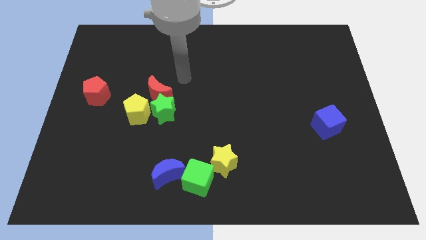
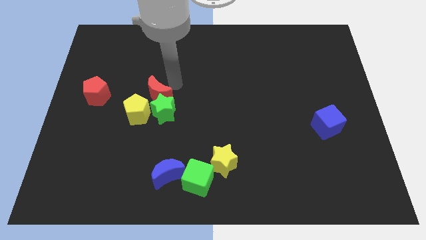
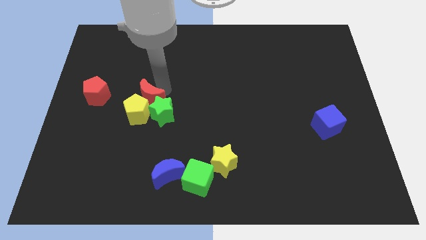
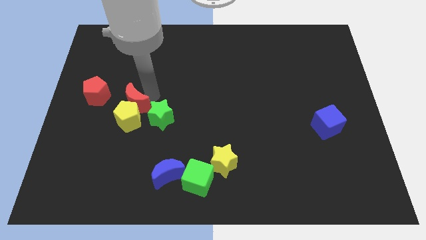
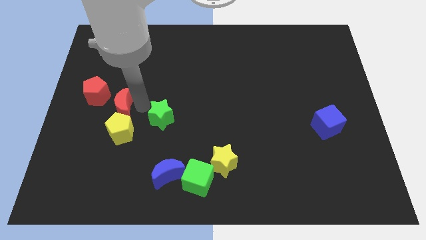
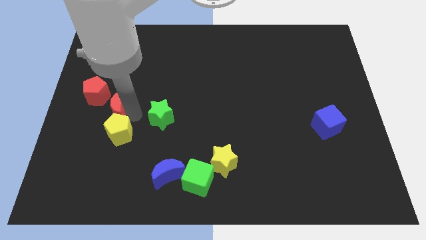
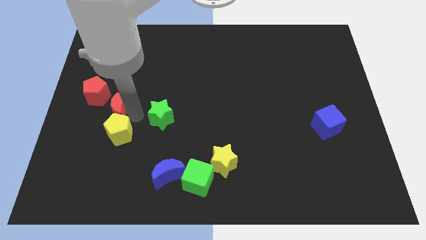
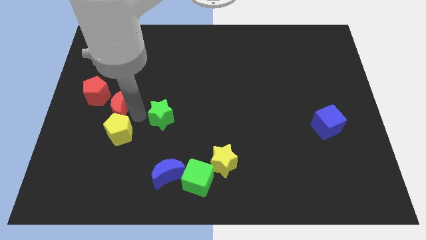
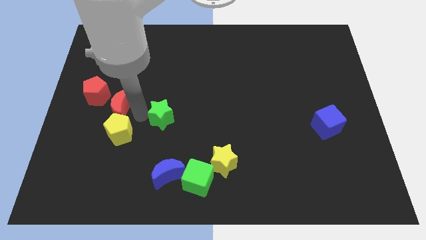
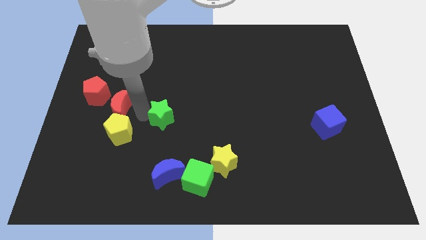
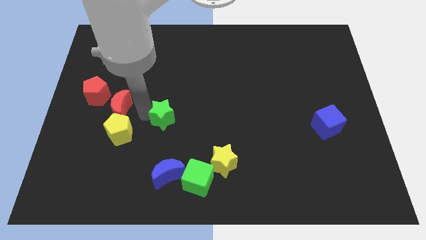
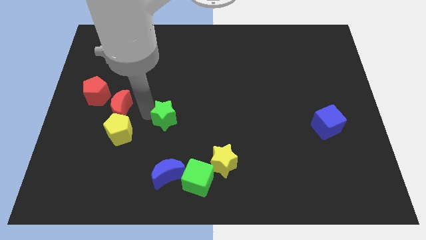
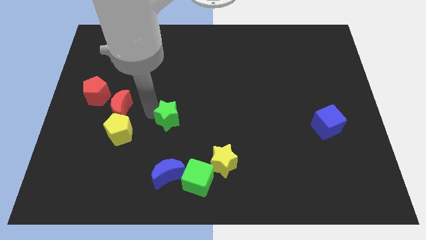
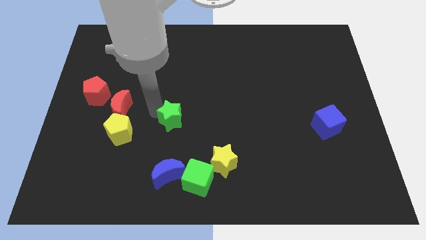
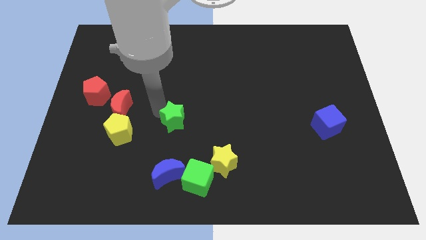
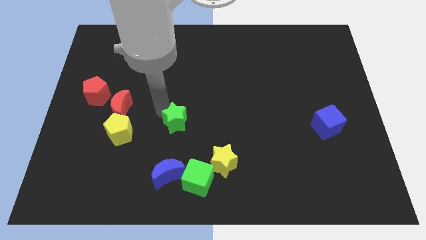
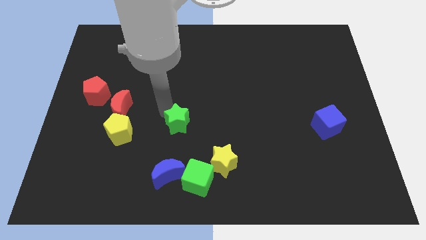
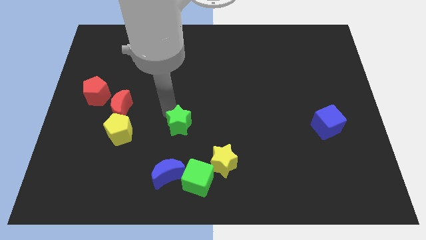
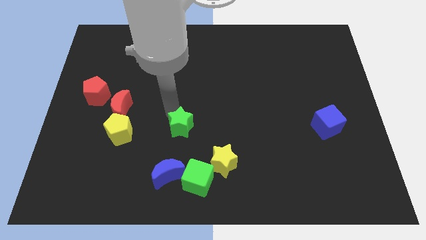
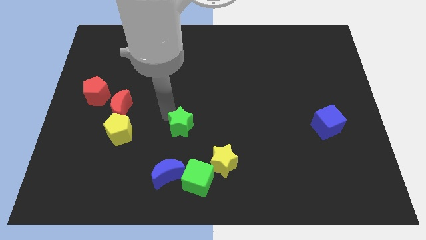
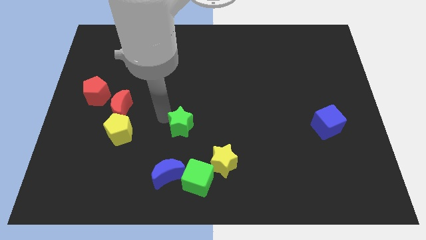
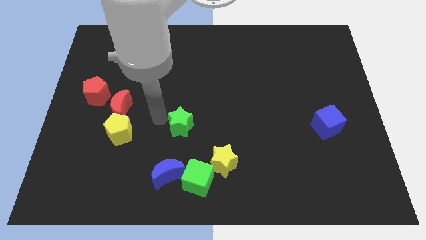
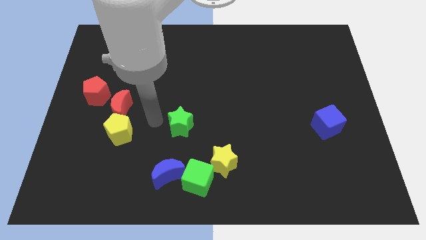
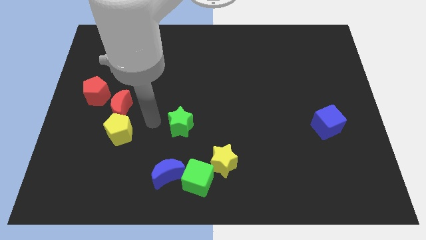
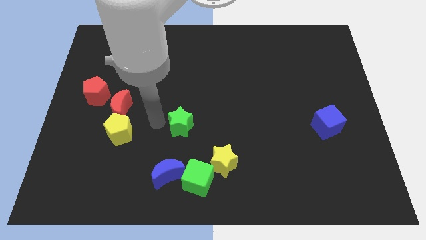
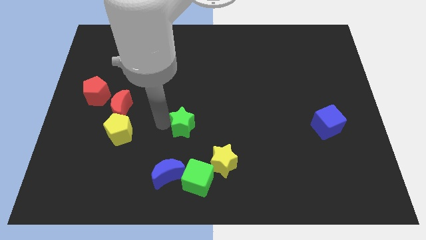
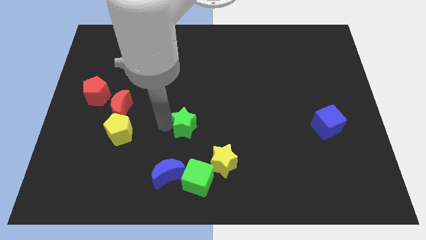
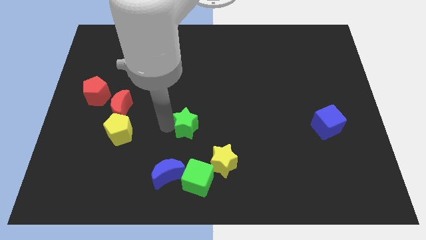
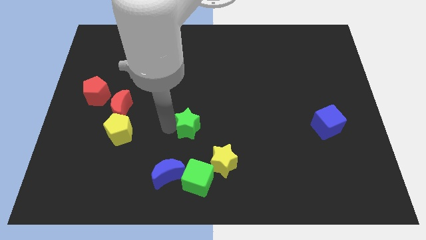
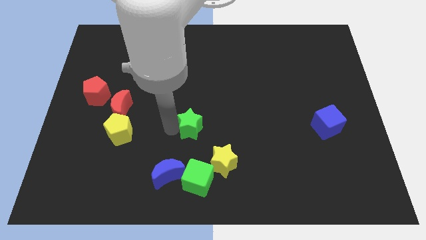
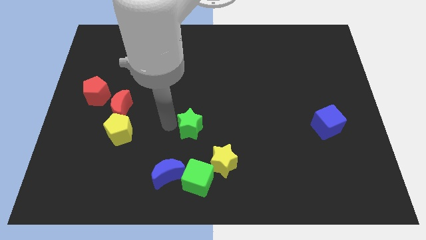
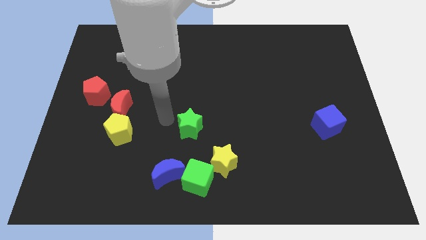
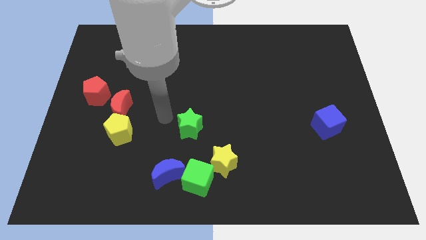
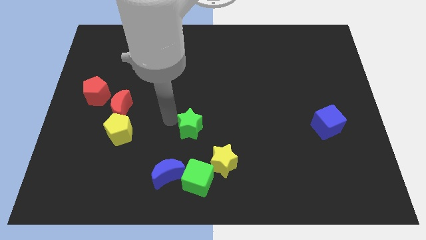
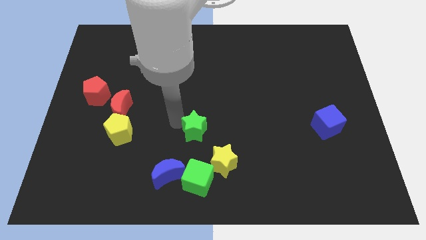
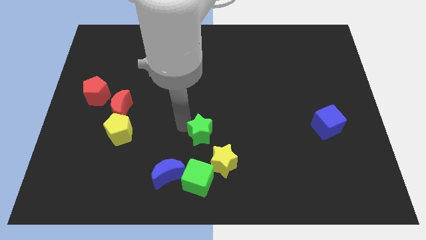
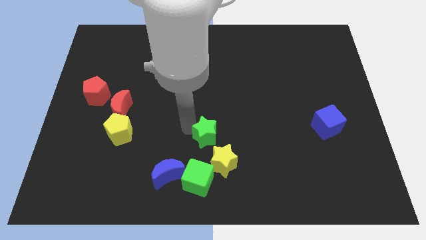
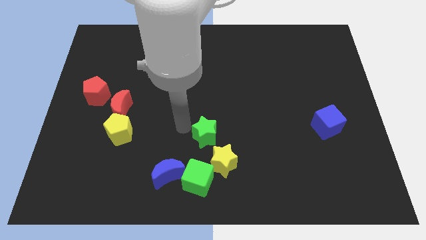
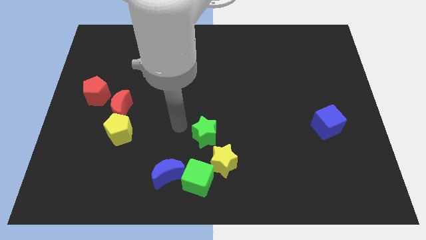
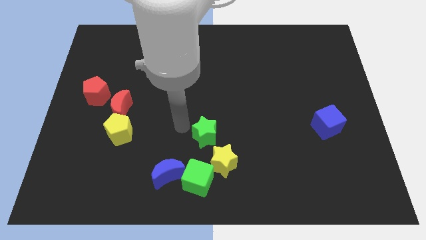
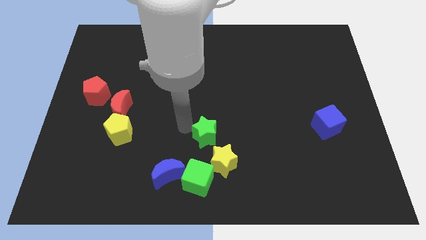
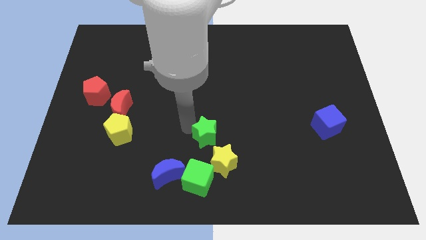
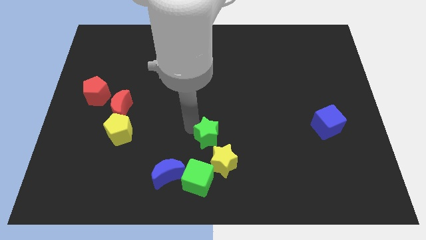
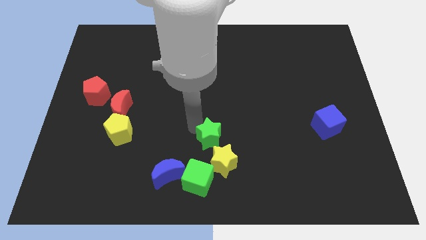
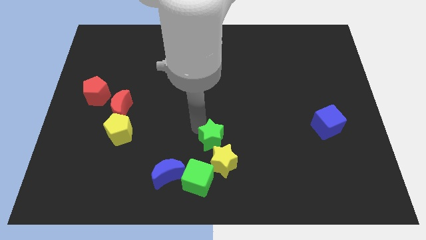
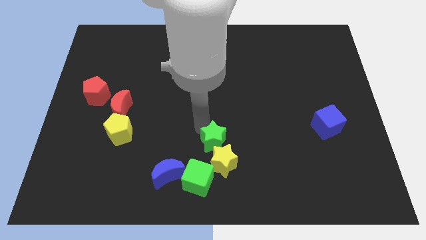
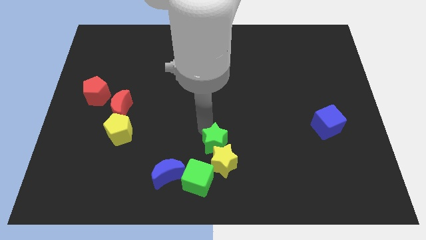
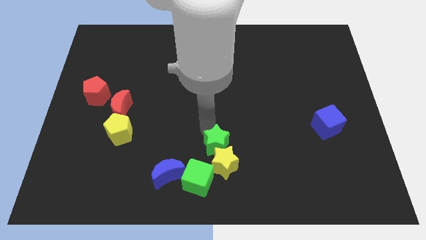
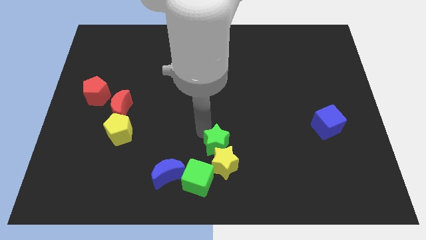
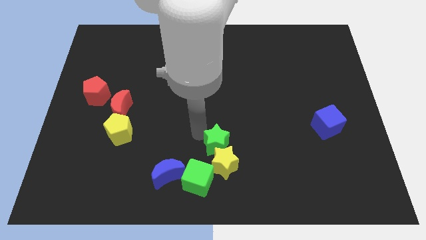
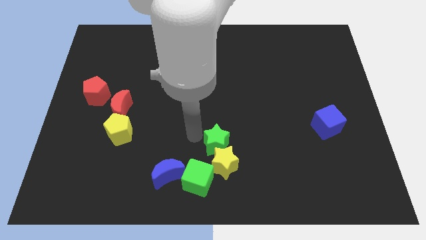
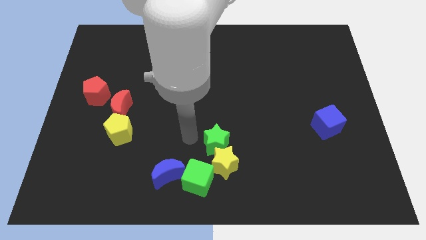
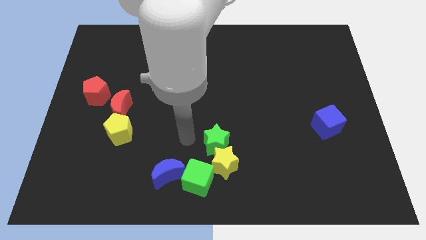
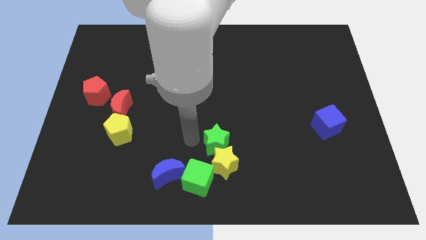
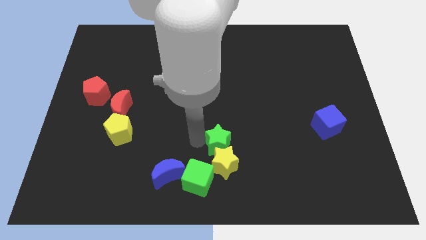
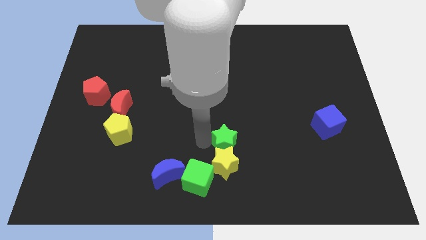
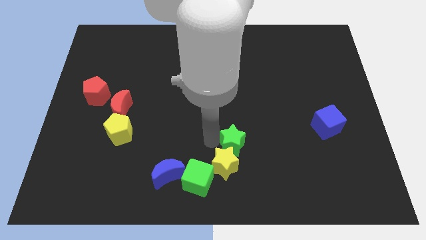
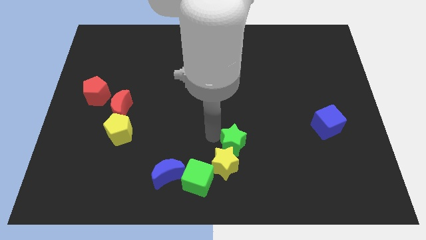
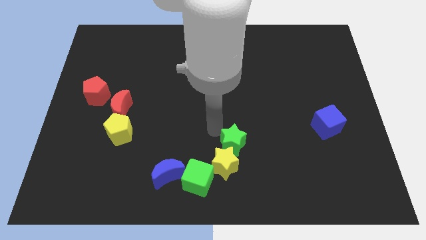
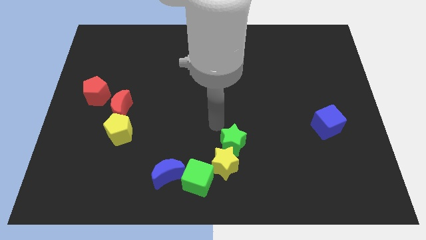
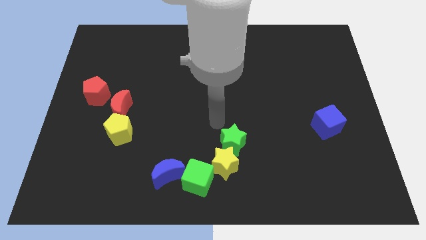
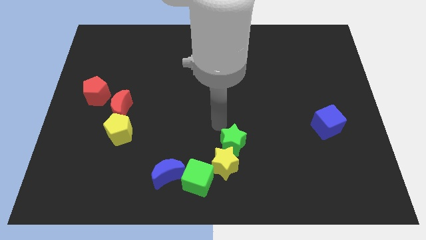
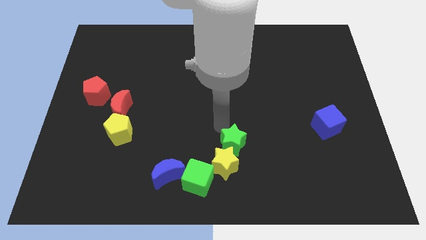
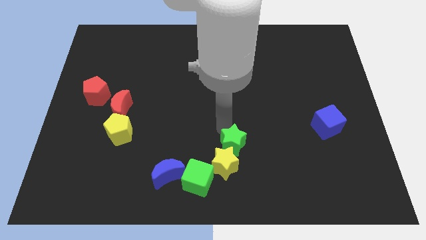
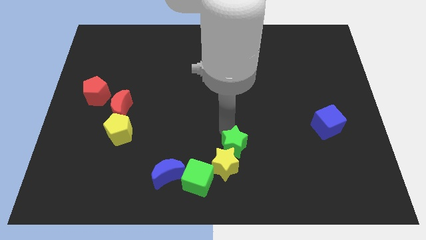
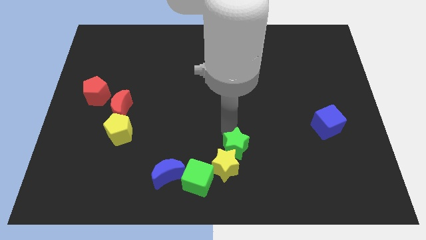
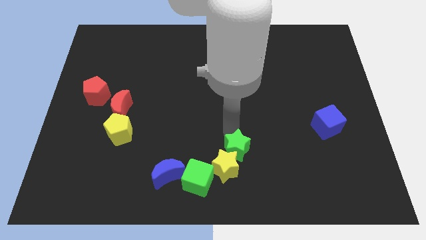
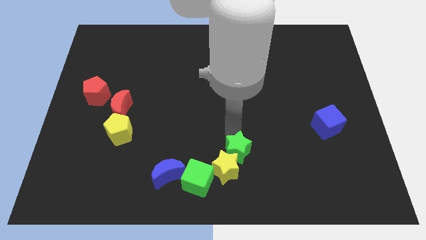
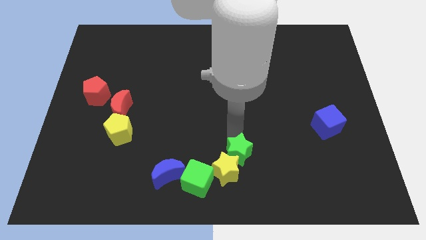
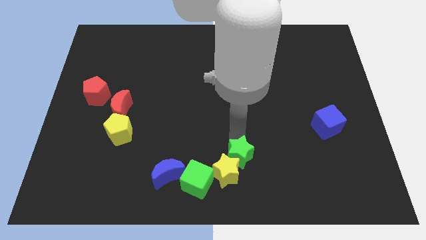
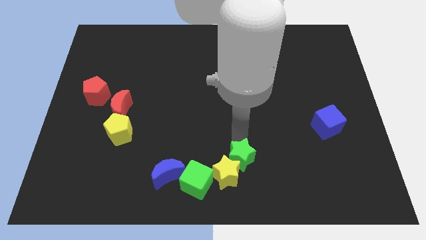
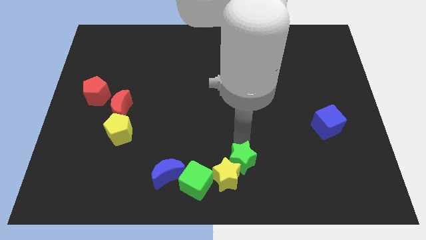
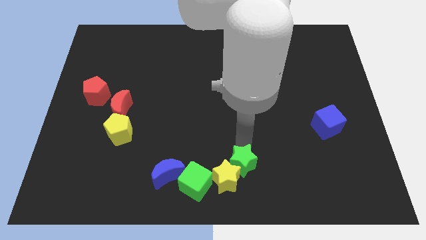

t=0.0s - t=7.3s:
put the green star to the right of the green cube
